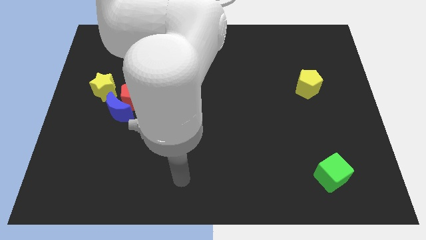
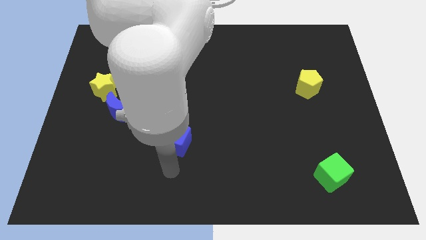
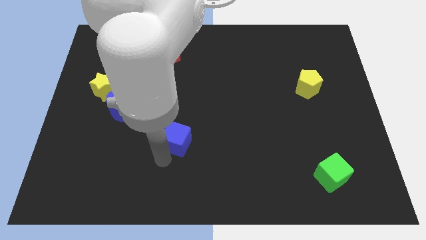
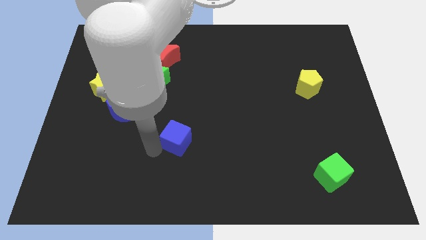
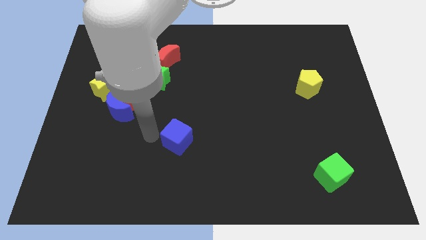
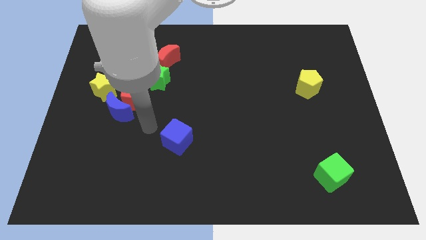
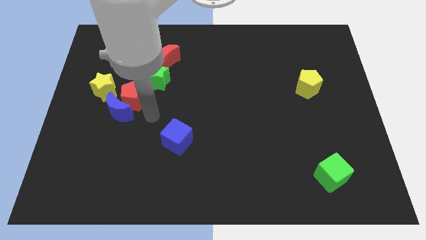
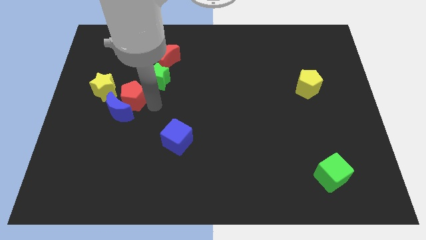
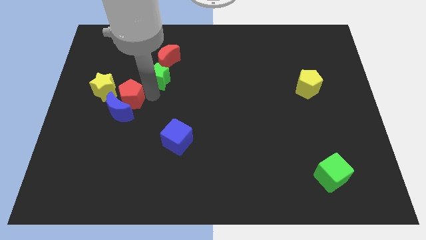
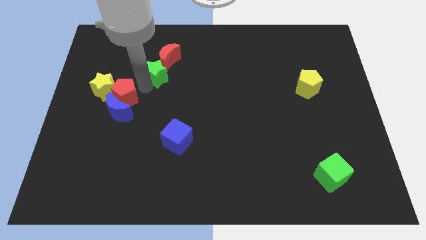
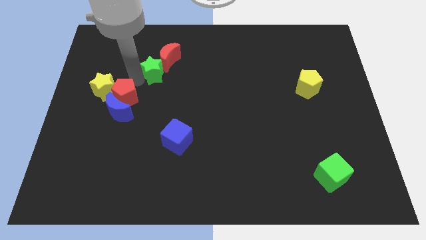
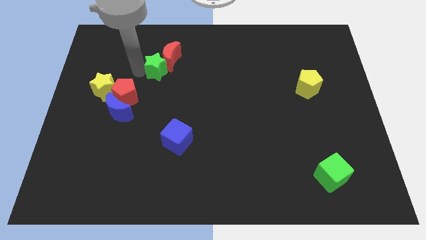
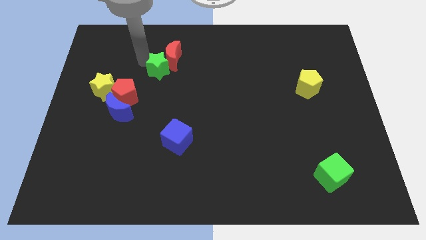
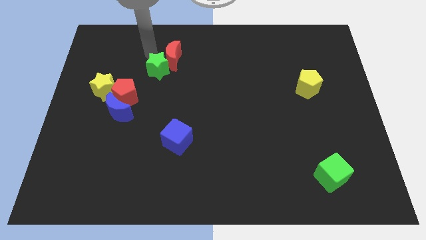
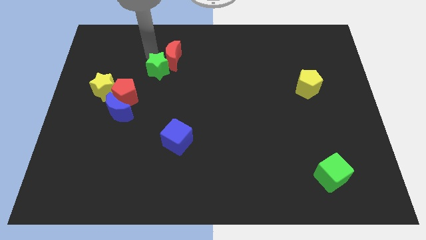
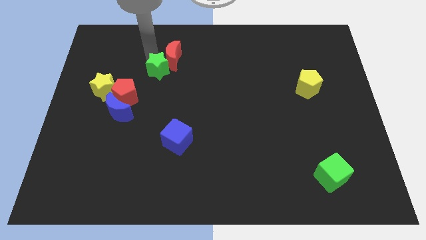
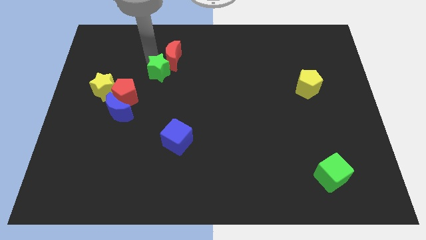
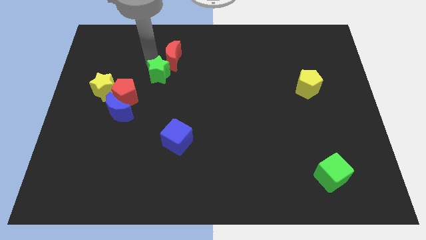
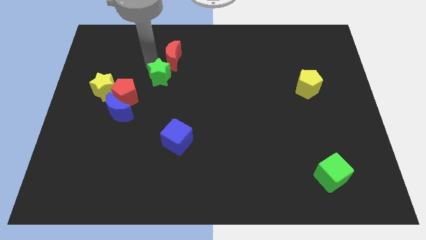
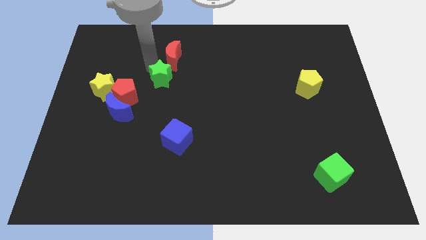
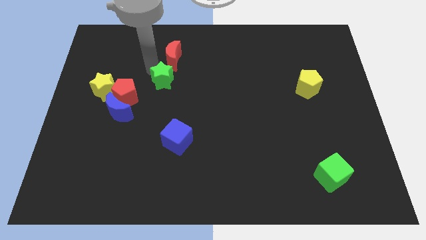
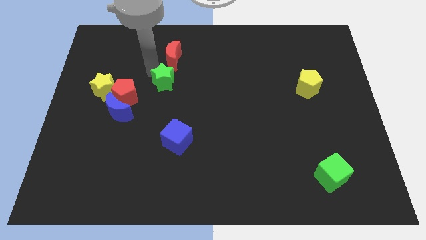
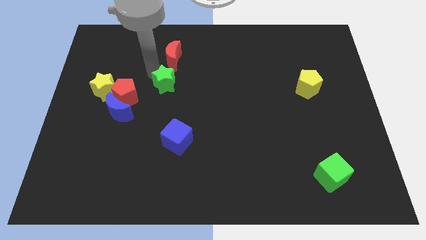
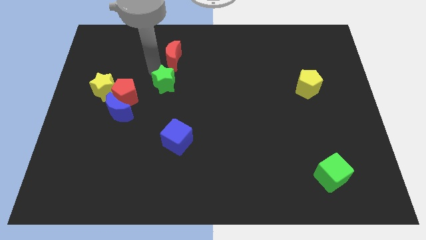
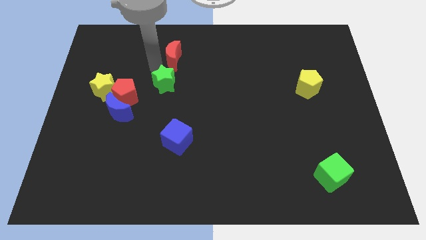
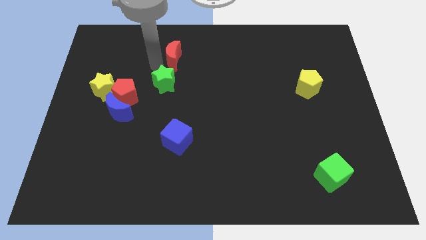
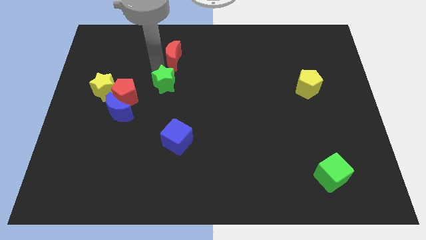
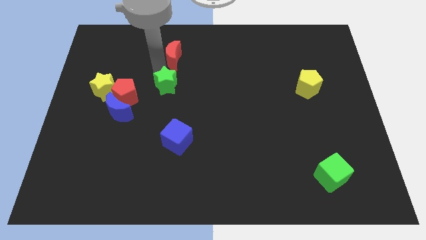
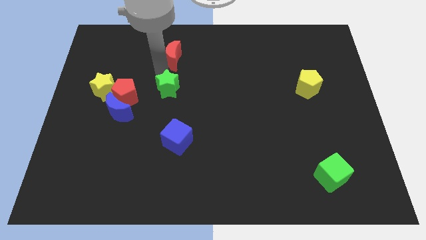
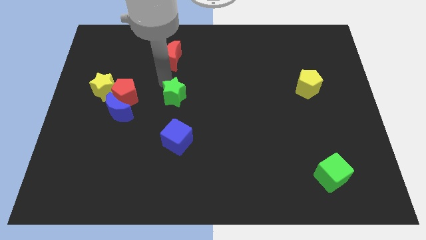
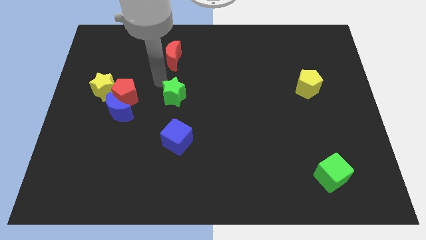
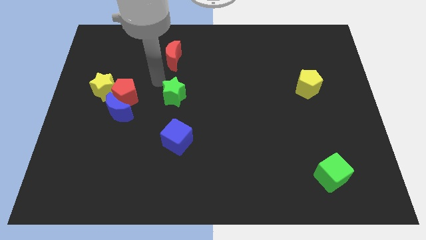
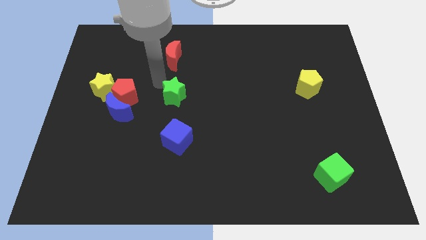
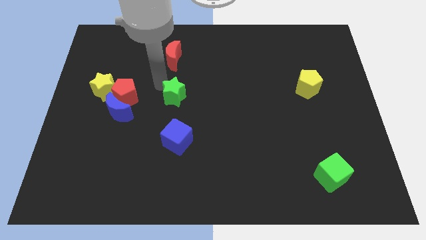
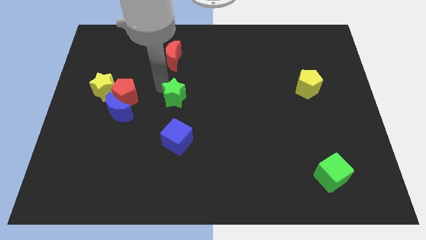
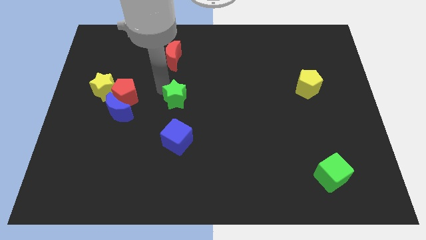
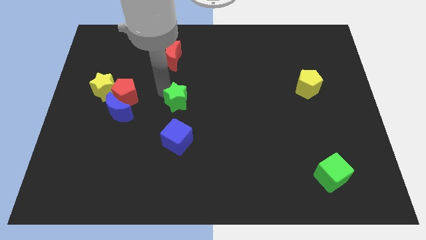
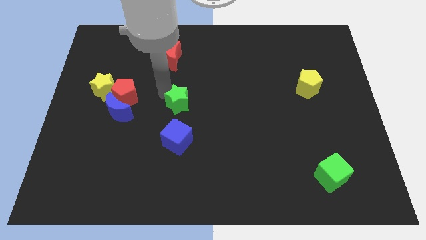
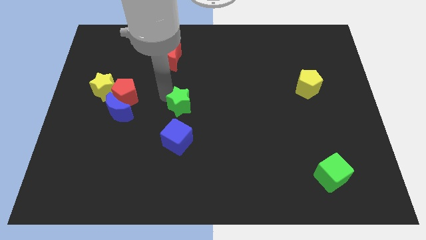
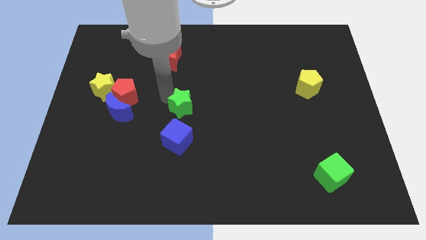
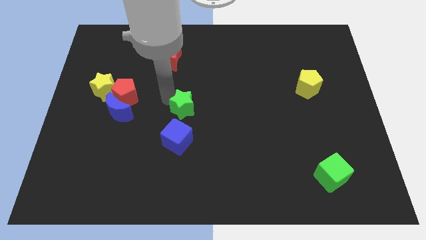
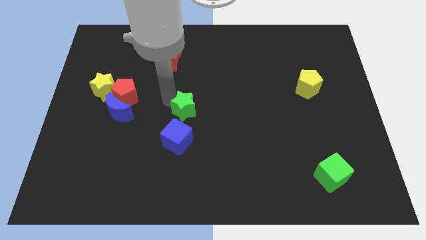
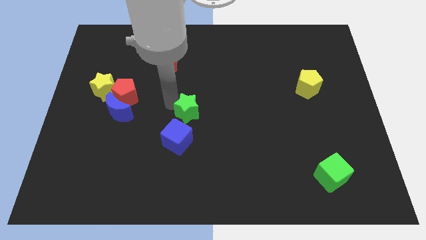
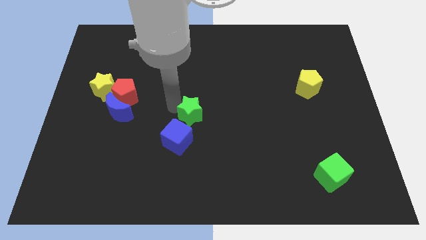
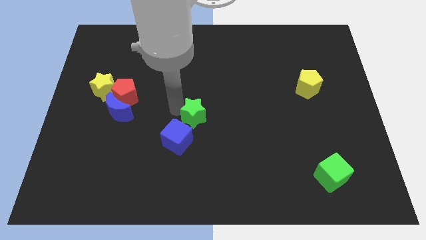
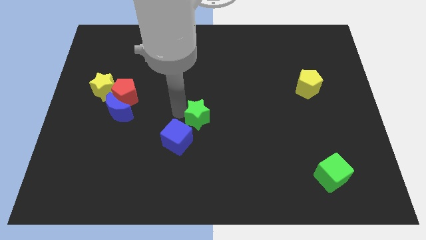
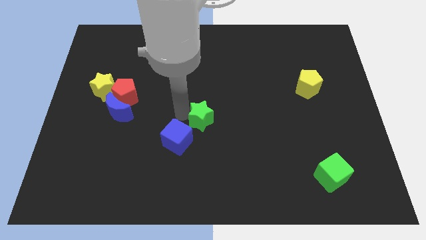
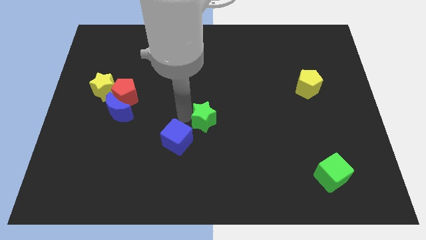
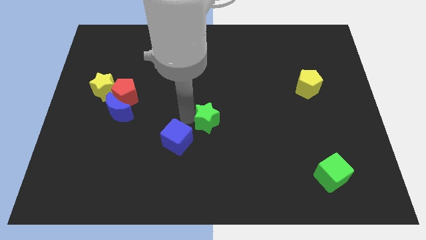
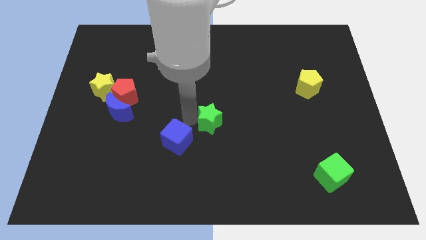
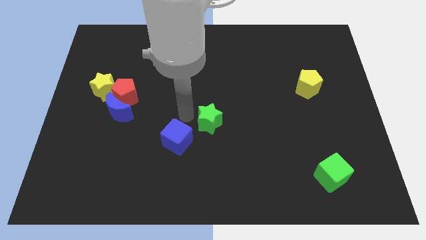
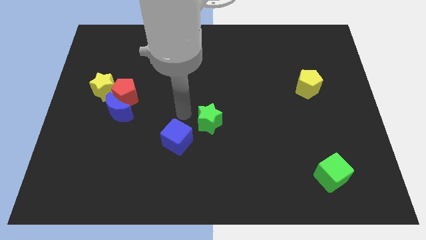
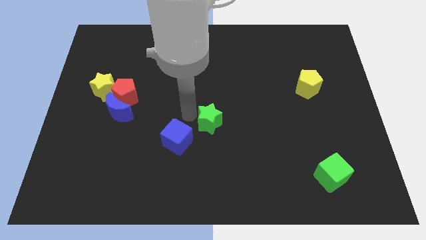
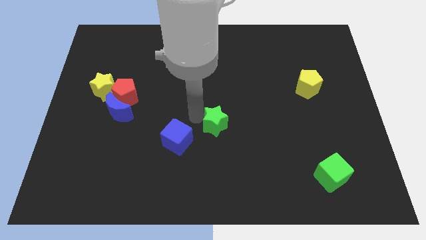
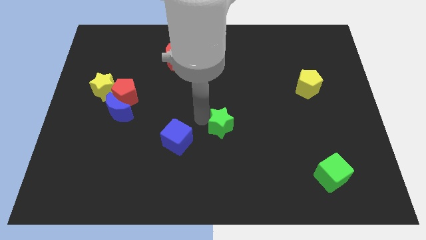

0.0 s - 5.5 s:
move the green star downwards and then right

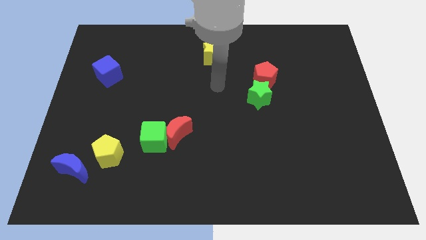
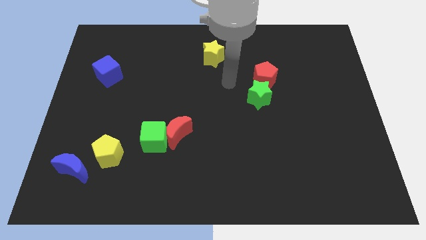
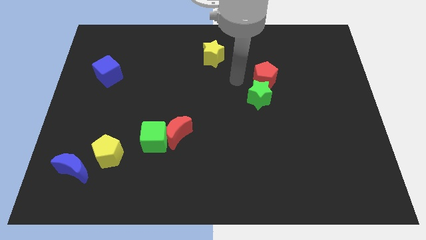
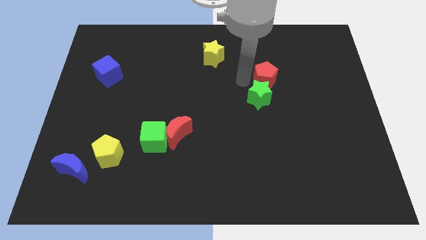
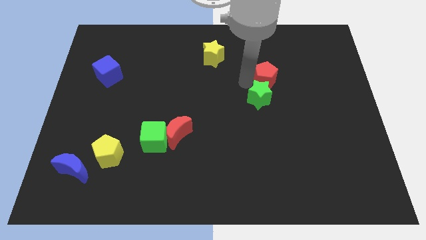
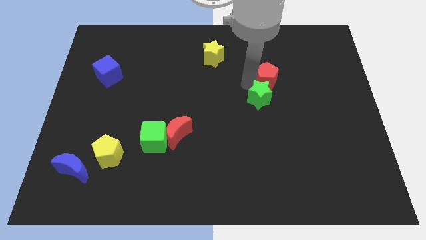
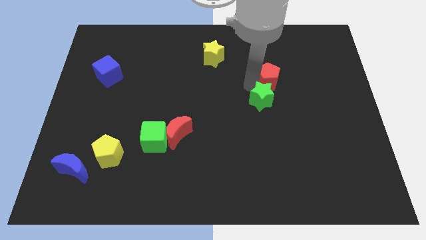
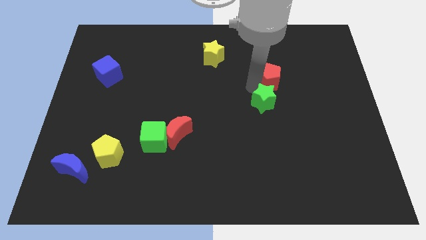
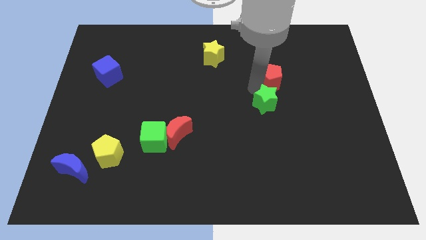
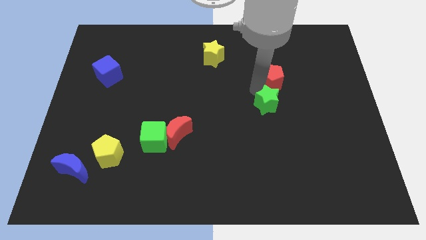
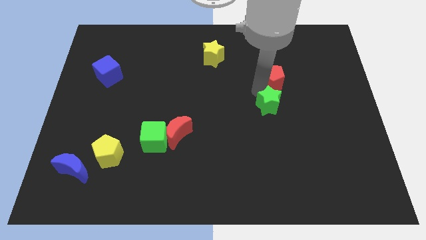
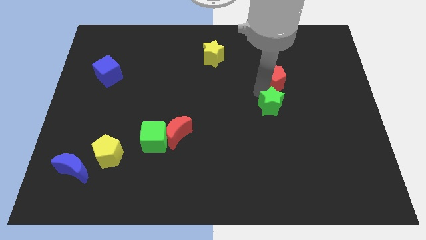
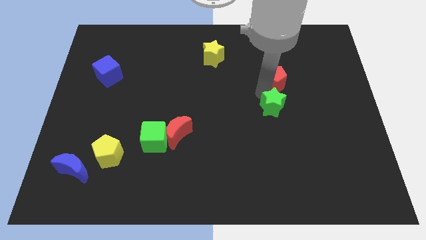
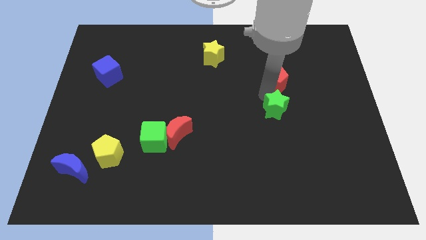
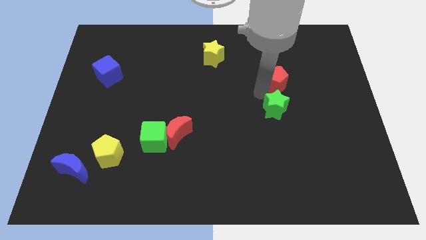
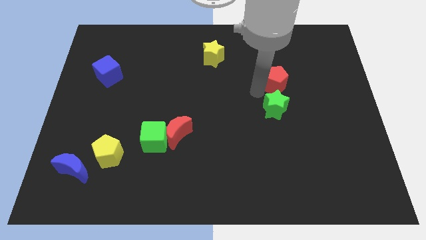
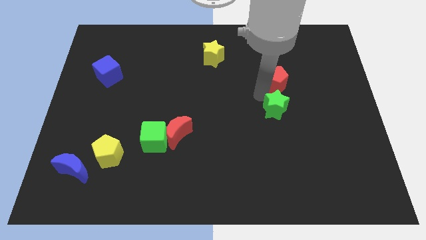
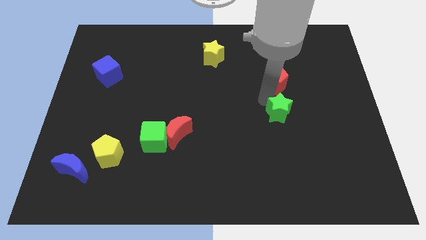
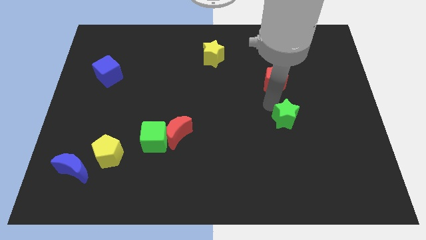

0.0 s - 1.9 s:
slightly push the green star diagonally down and right

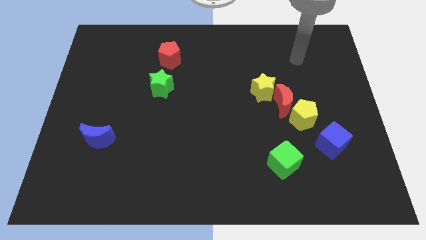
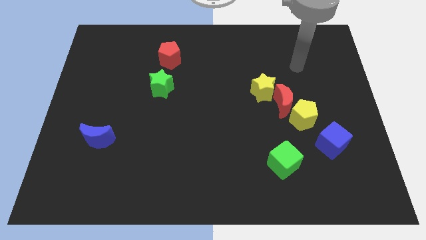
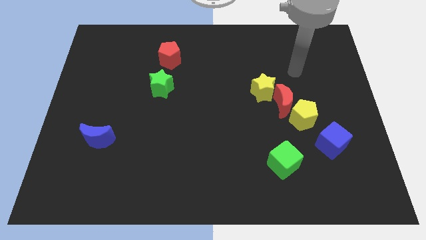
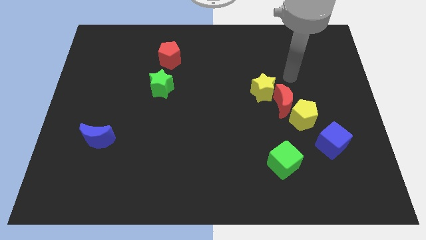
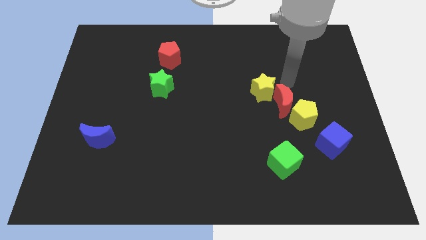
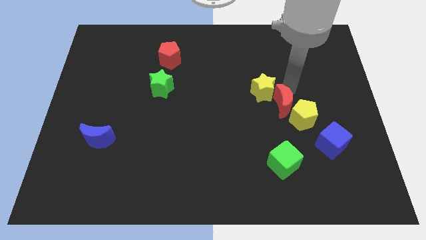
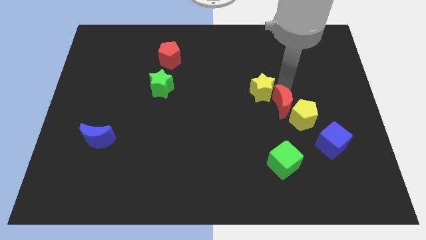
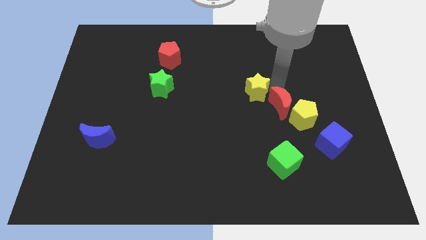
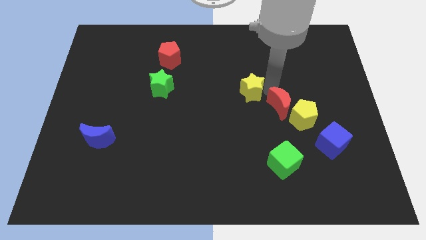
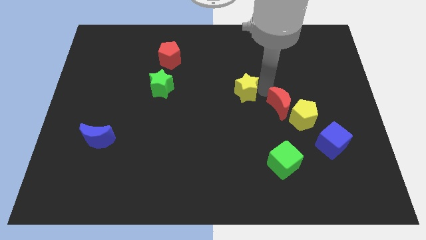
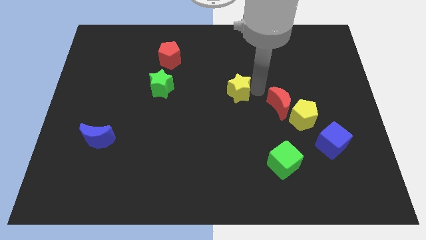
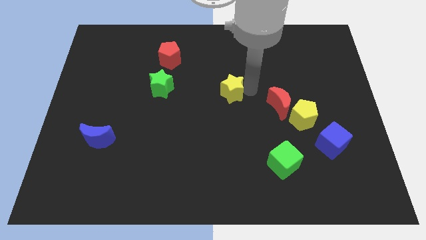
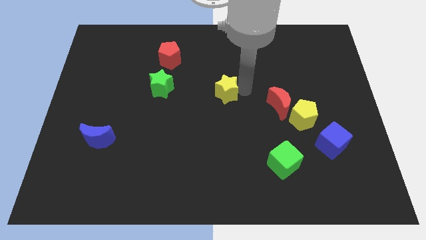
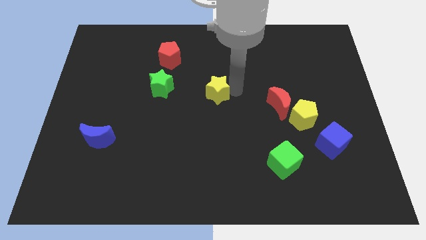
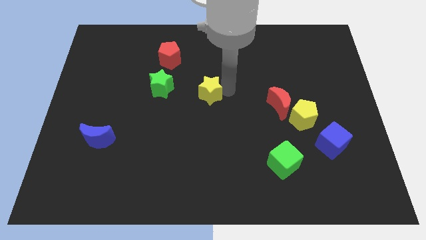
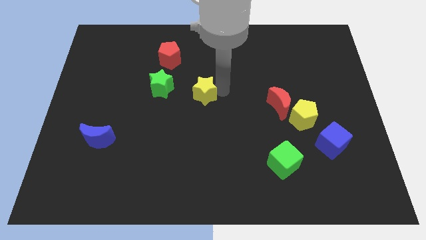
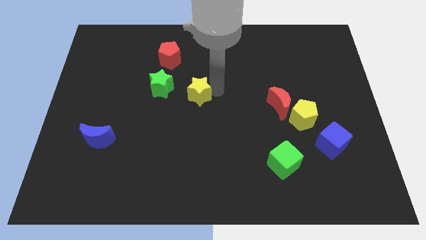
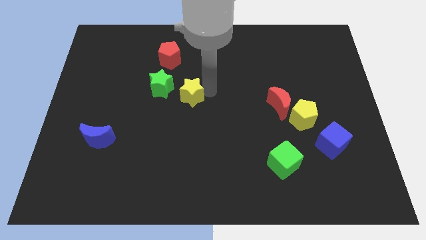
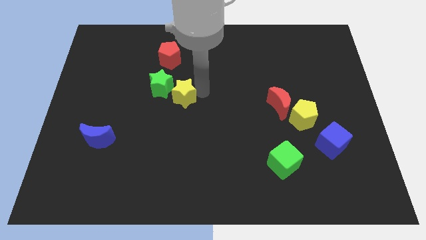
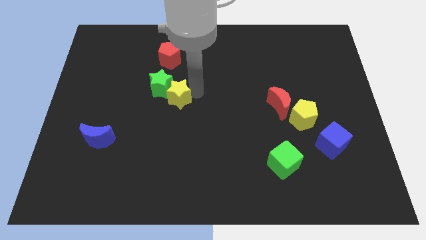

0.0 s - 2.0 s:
move the yellow star to the left
